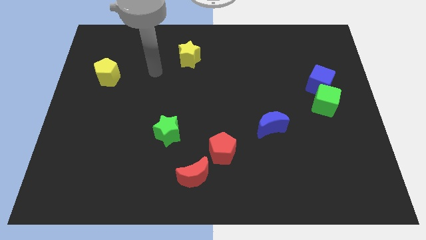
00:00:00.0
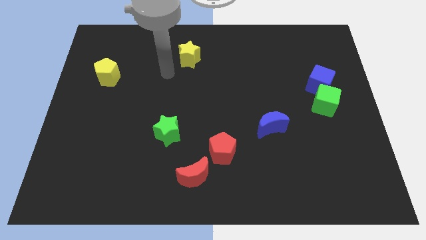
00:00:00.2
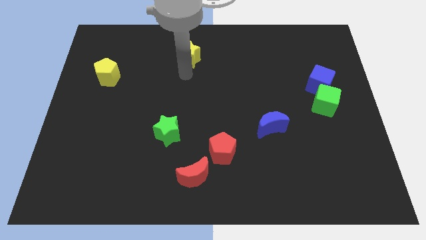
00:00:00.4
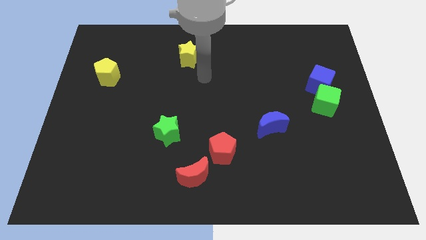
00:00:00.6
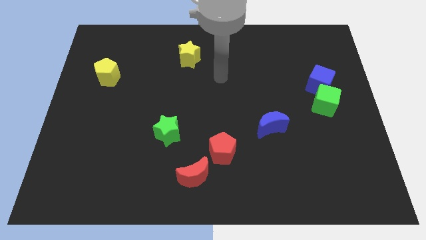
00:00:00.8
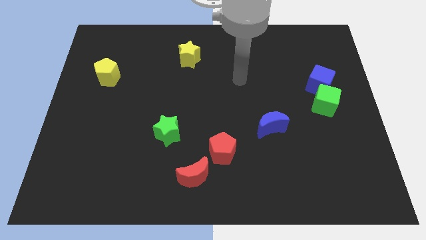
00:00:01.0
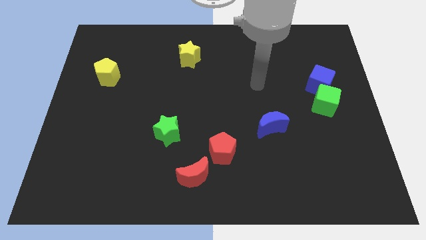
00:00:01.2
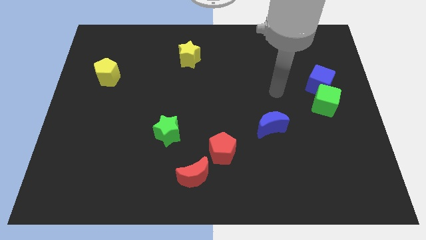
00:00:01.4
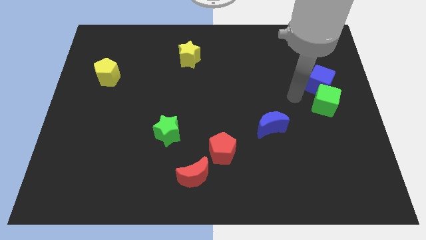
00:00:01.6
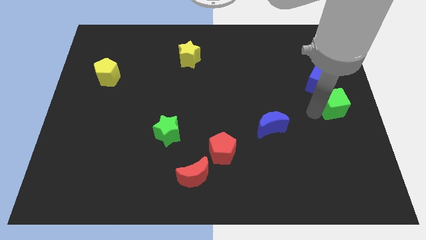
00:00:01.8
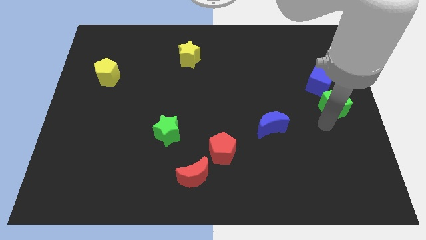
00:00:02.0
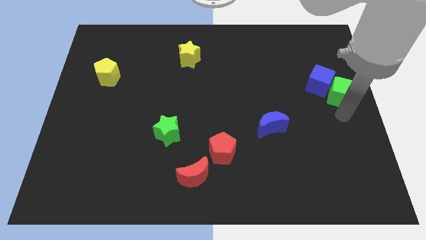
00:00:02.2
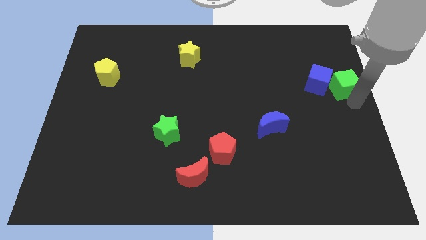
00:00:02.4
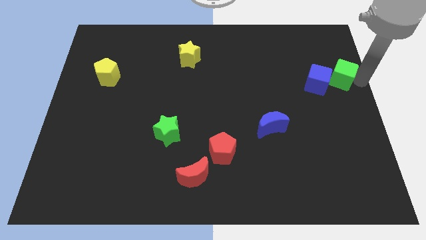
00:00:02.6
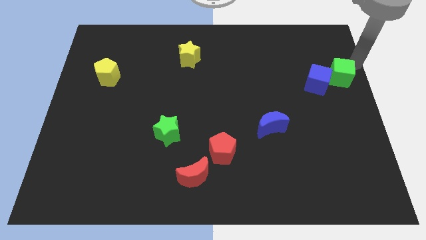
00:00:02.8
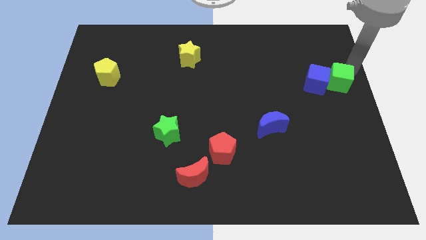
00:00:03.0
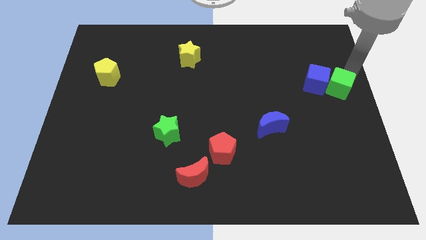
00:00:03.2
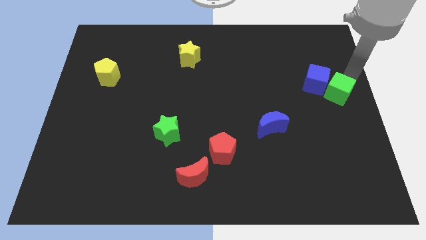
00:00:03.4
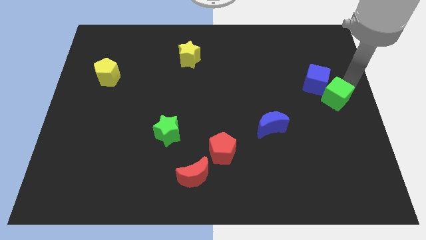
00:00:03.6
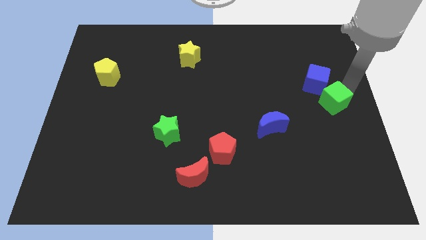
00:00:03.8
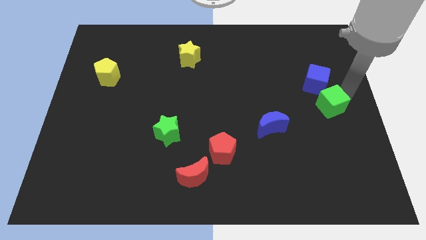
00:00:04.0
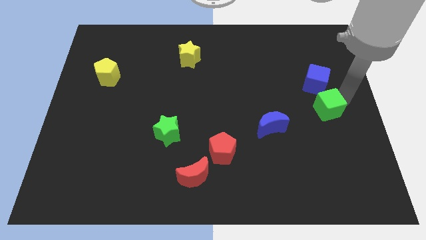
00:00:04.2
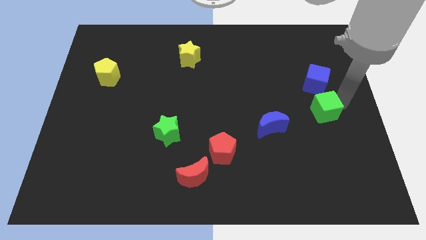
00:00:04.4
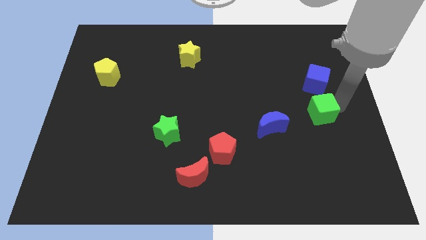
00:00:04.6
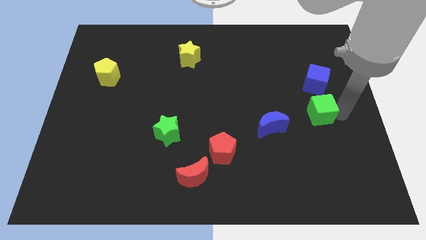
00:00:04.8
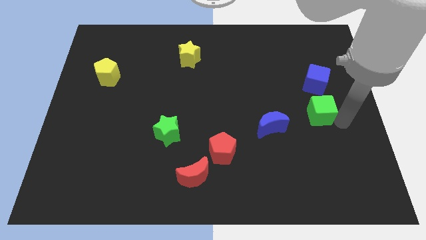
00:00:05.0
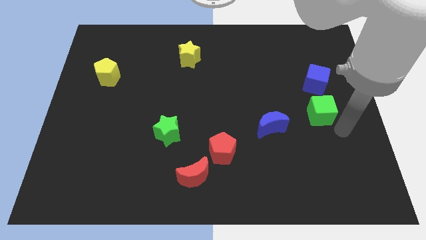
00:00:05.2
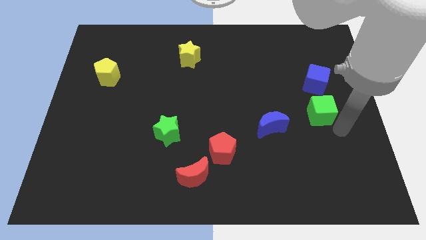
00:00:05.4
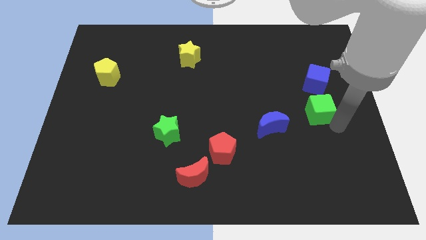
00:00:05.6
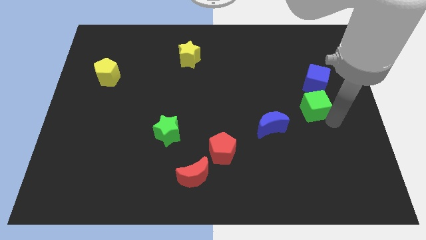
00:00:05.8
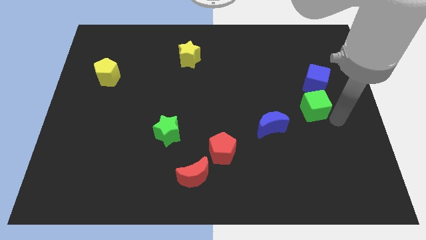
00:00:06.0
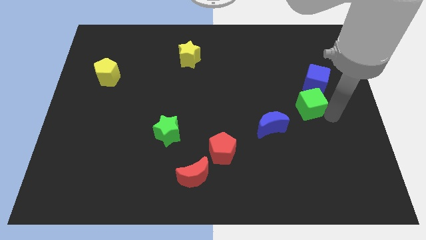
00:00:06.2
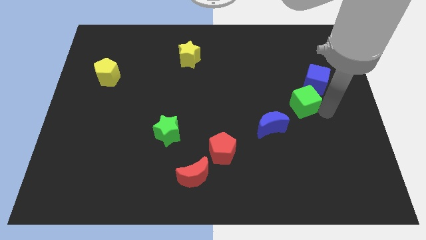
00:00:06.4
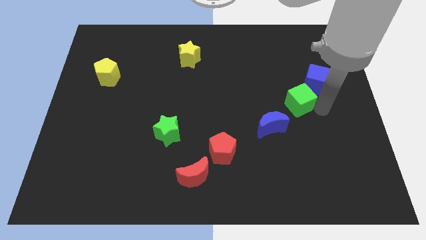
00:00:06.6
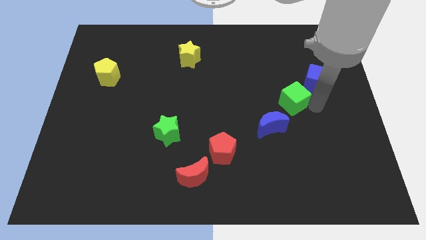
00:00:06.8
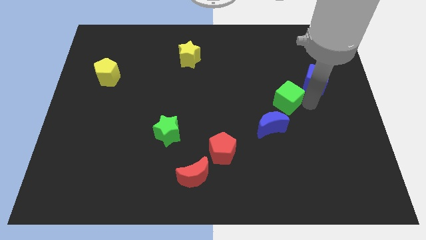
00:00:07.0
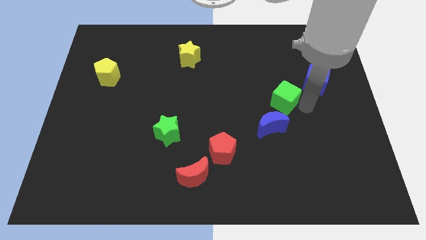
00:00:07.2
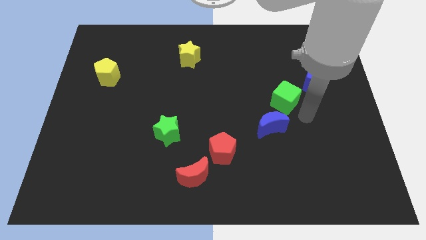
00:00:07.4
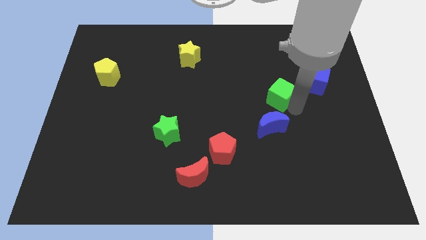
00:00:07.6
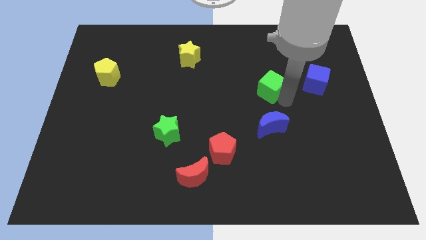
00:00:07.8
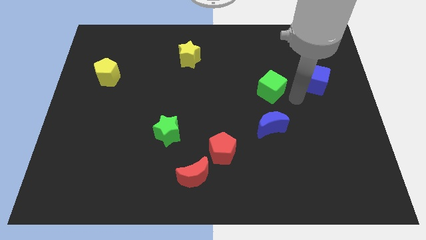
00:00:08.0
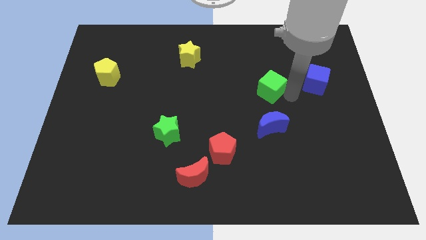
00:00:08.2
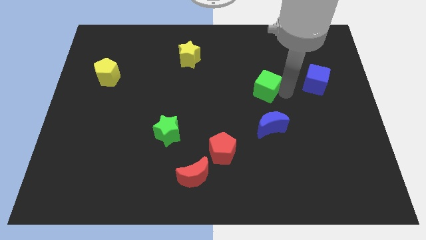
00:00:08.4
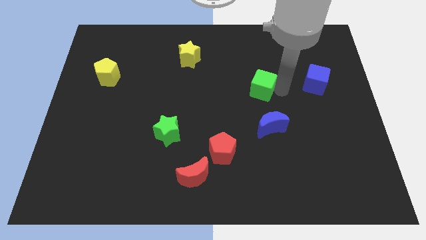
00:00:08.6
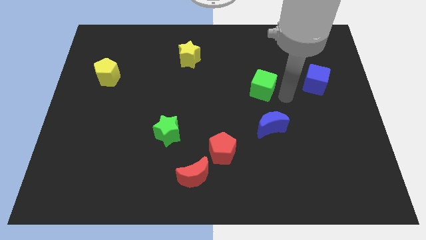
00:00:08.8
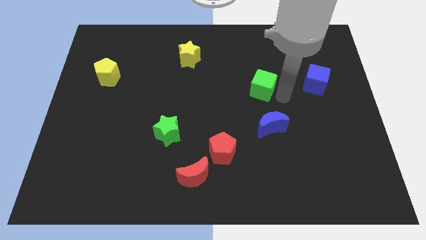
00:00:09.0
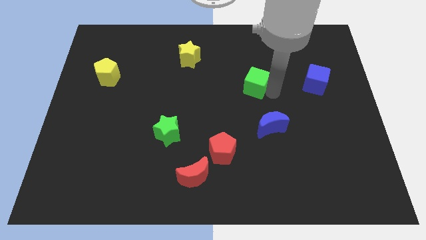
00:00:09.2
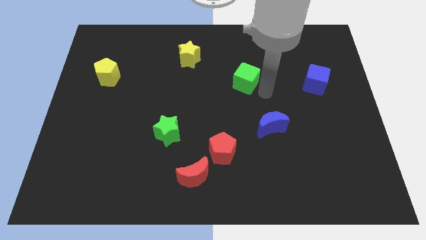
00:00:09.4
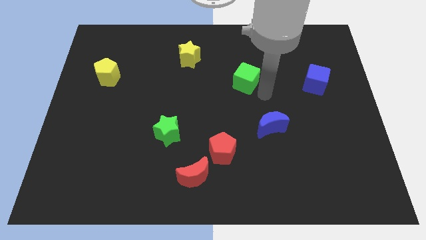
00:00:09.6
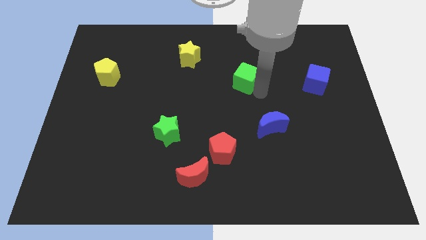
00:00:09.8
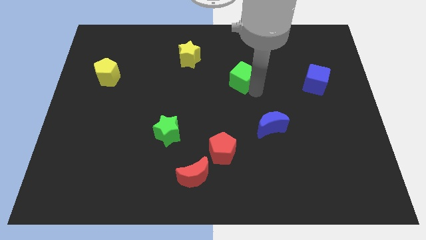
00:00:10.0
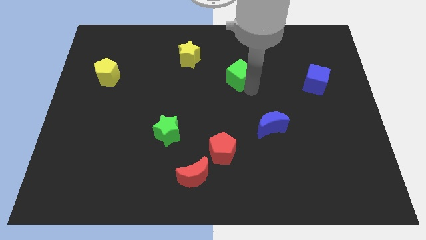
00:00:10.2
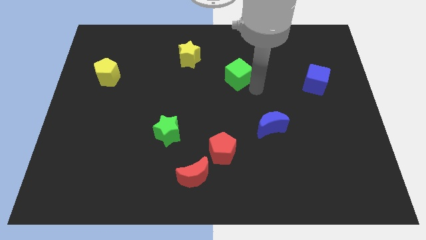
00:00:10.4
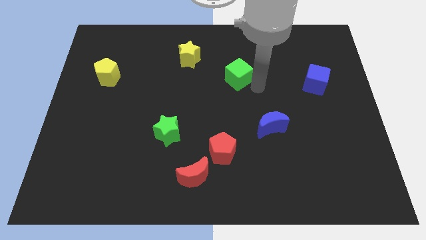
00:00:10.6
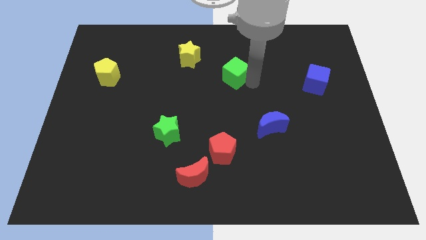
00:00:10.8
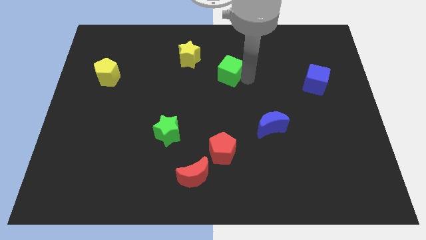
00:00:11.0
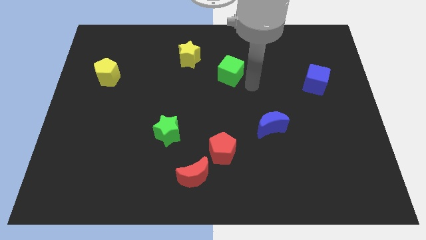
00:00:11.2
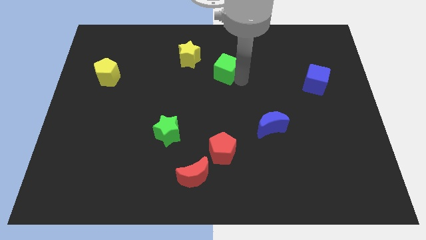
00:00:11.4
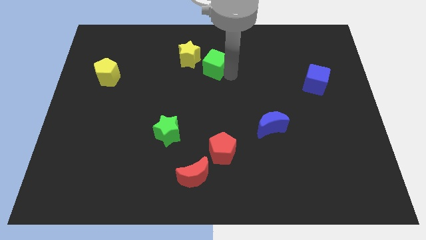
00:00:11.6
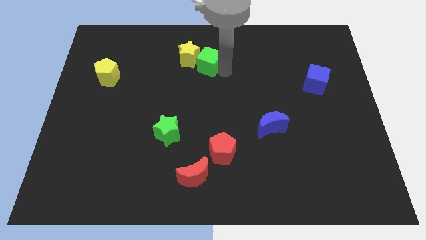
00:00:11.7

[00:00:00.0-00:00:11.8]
move the green cube to the yellow star
